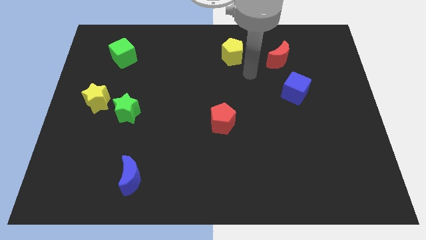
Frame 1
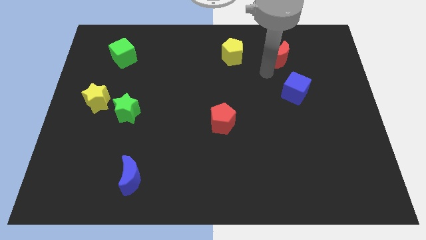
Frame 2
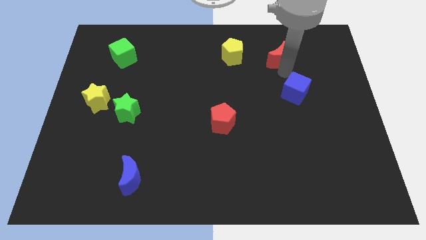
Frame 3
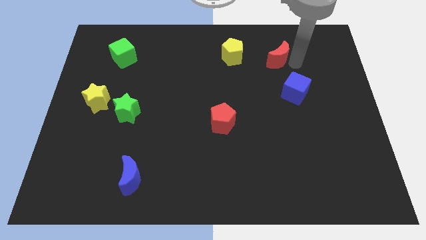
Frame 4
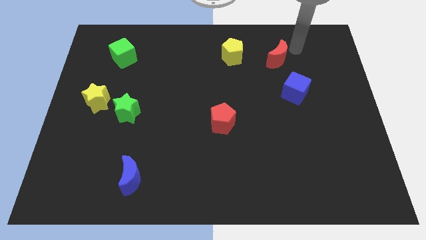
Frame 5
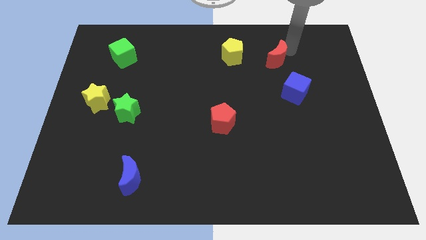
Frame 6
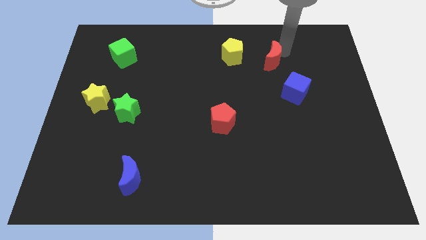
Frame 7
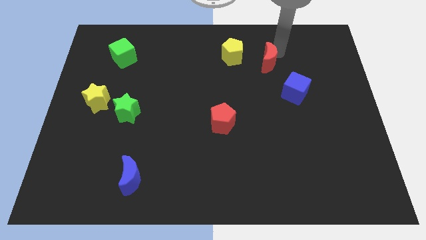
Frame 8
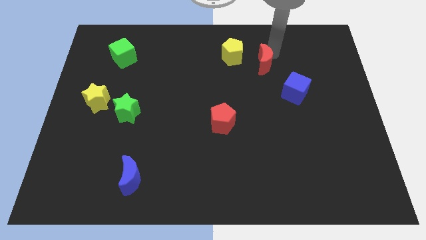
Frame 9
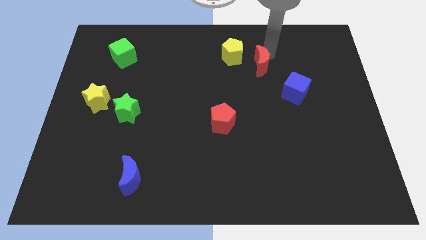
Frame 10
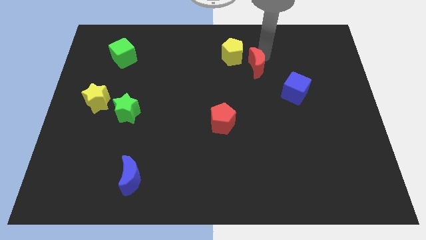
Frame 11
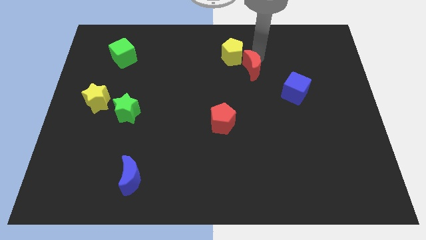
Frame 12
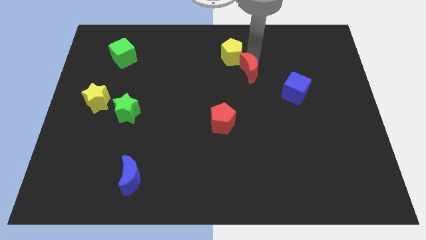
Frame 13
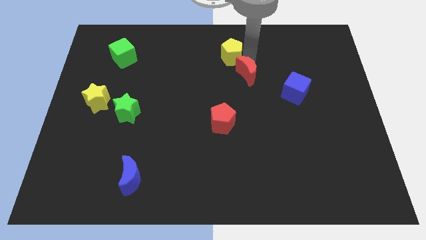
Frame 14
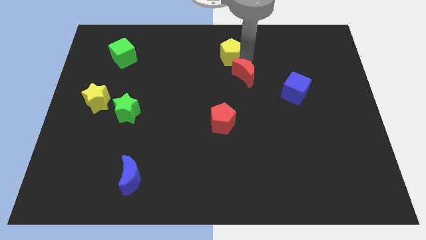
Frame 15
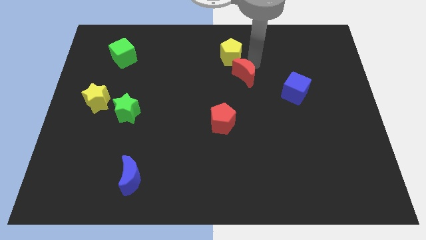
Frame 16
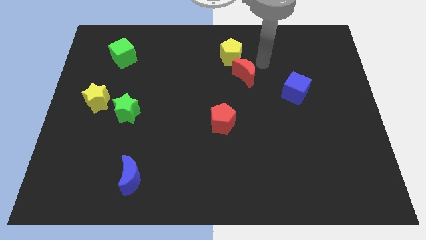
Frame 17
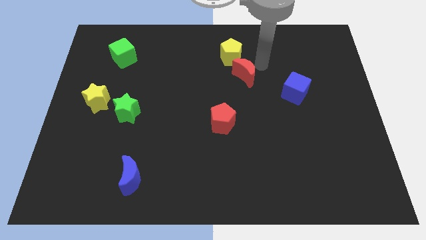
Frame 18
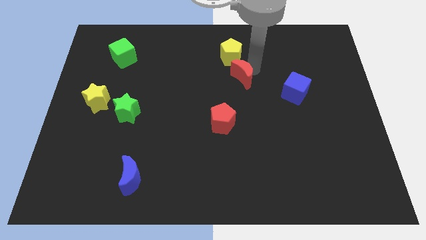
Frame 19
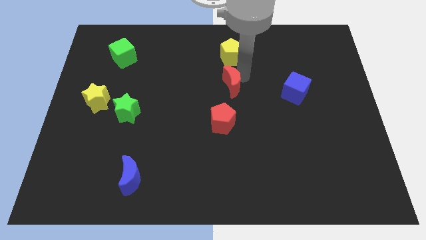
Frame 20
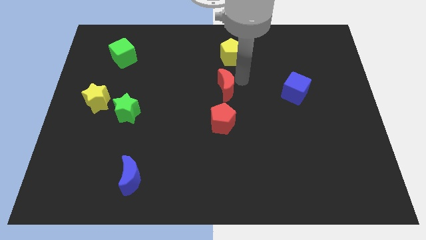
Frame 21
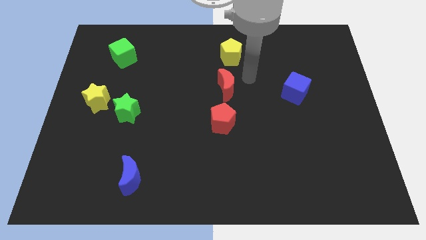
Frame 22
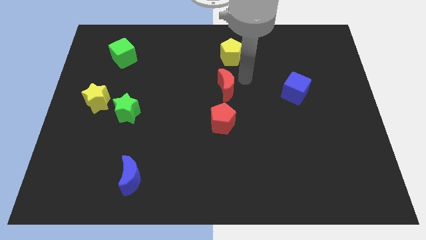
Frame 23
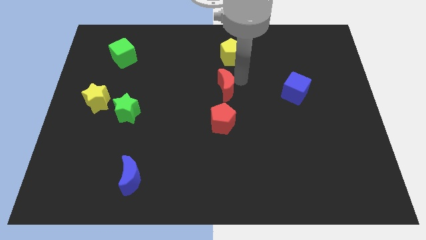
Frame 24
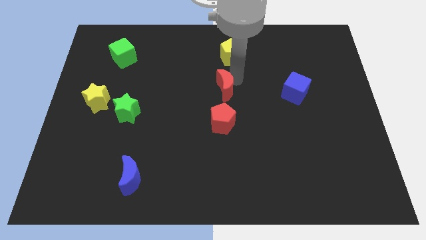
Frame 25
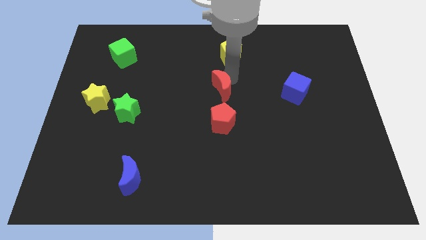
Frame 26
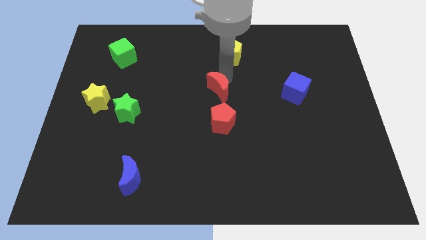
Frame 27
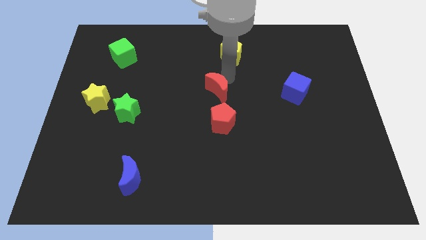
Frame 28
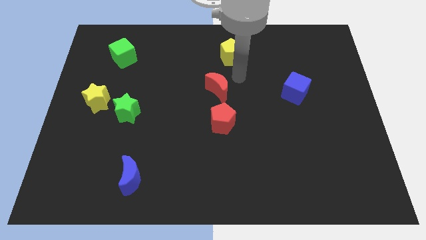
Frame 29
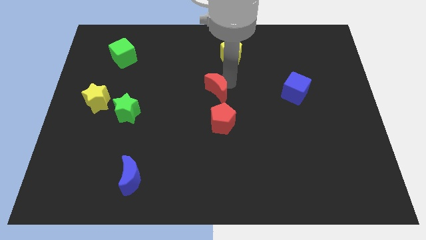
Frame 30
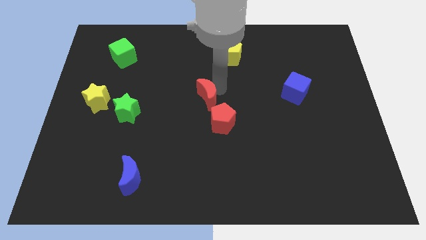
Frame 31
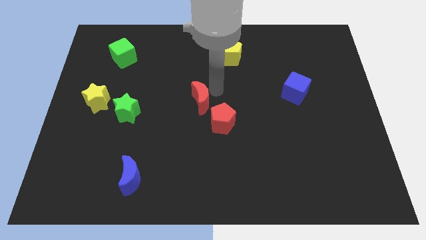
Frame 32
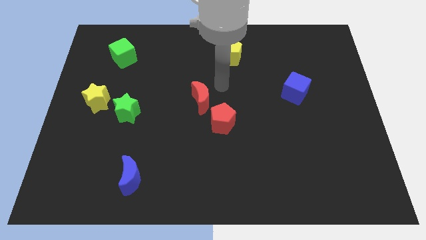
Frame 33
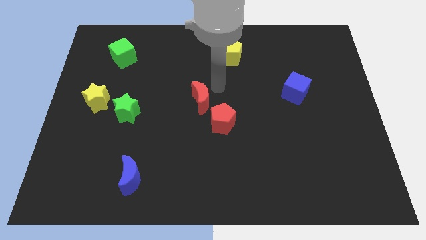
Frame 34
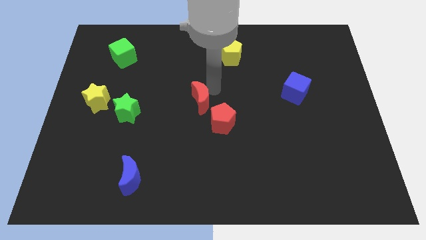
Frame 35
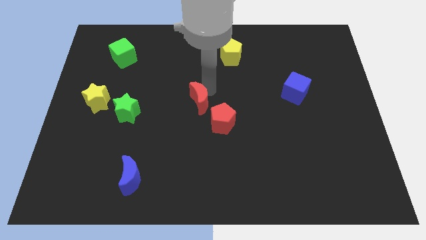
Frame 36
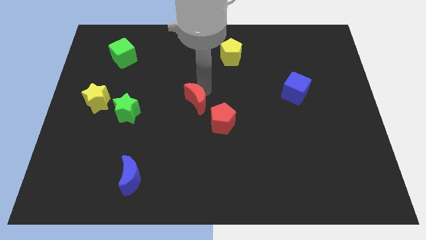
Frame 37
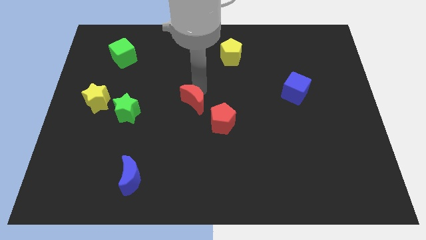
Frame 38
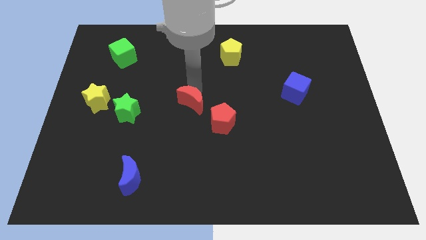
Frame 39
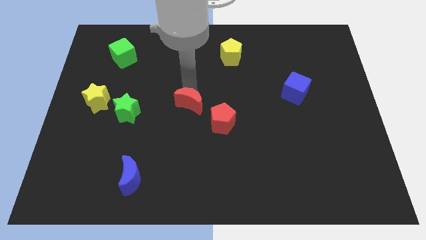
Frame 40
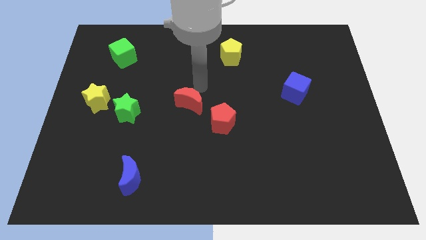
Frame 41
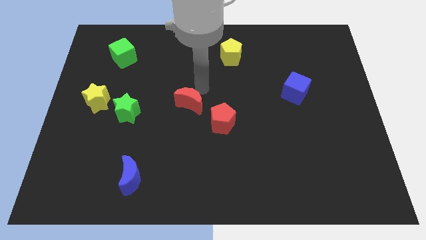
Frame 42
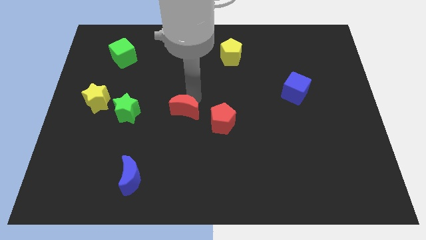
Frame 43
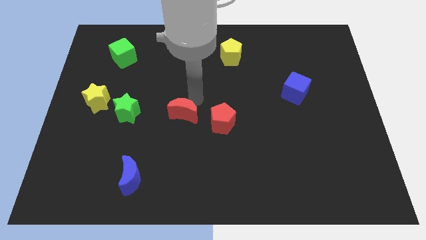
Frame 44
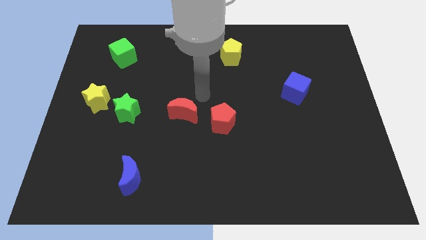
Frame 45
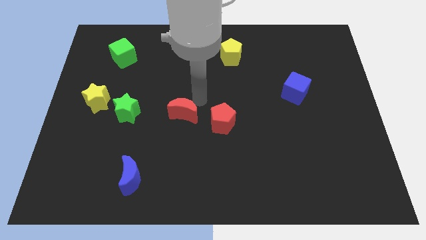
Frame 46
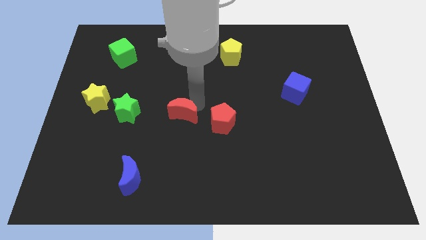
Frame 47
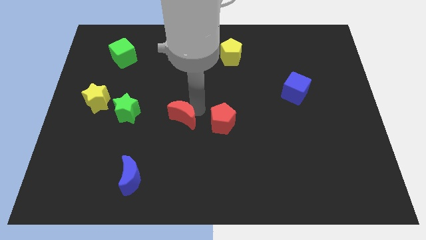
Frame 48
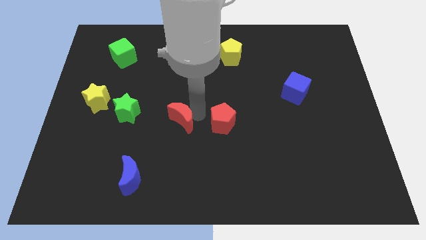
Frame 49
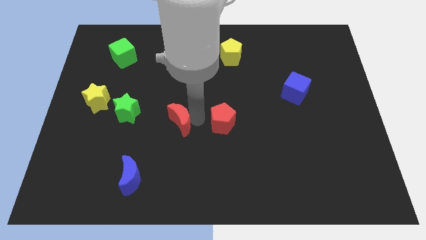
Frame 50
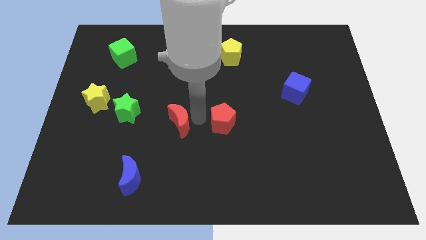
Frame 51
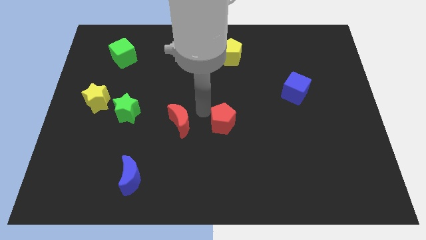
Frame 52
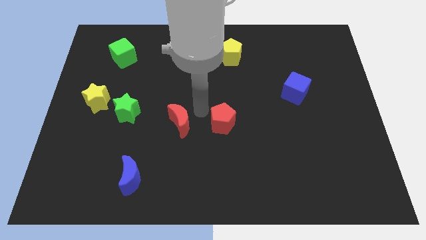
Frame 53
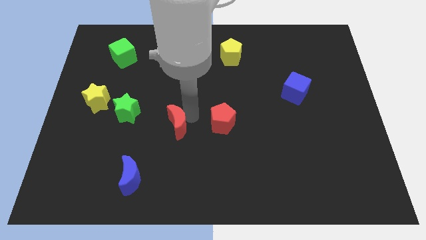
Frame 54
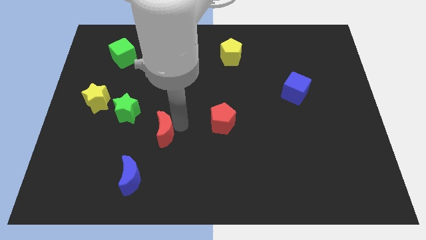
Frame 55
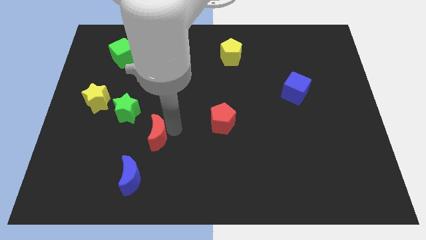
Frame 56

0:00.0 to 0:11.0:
push the red moon above the blue moon

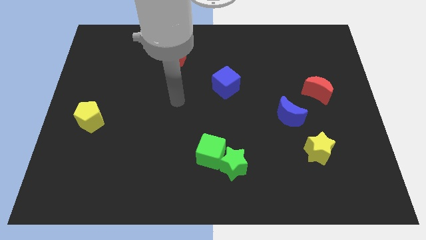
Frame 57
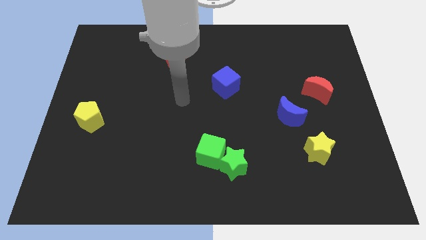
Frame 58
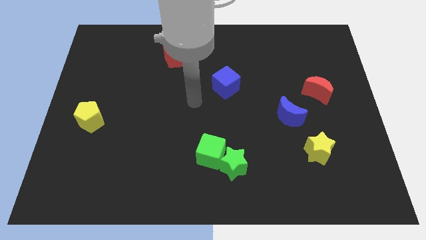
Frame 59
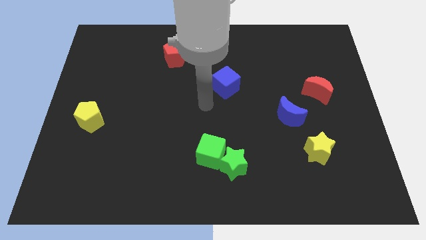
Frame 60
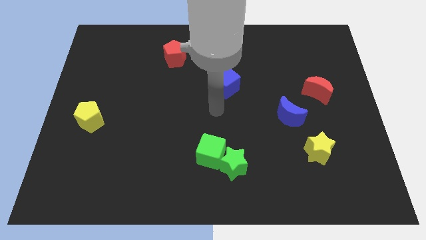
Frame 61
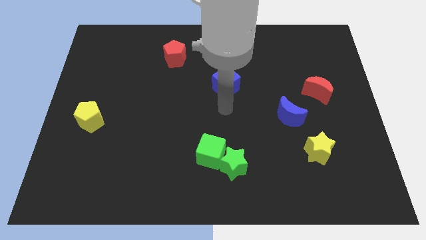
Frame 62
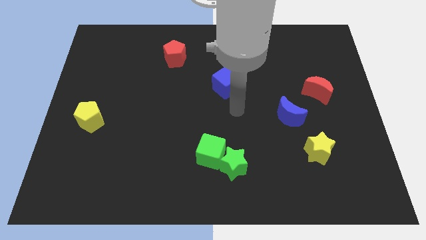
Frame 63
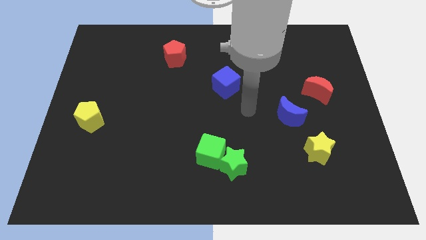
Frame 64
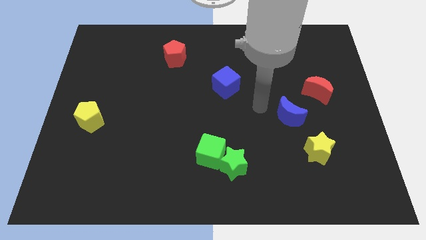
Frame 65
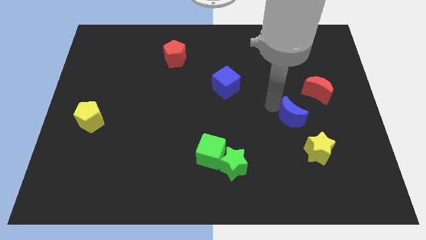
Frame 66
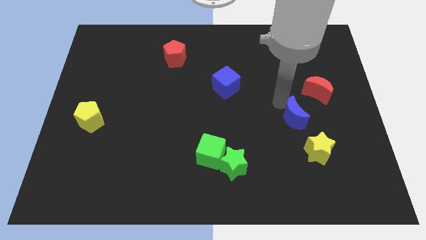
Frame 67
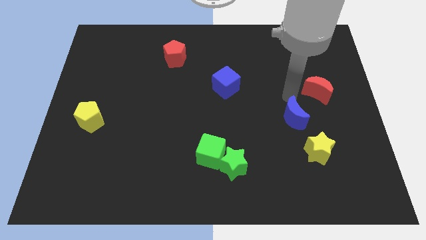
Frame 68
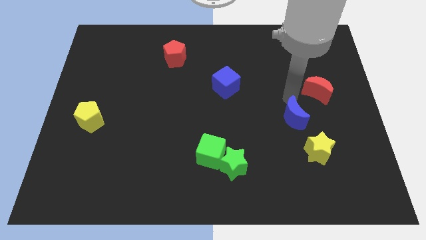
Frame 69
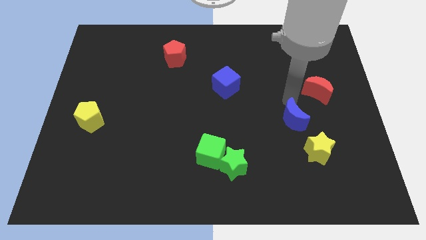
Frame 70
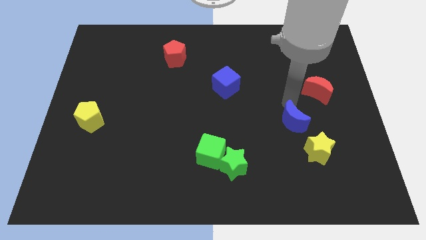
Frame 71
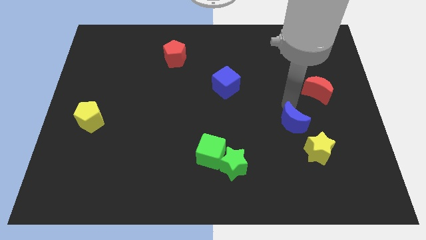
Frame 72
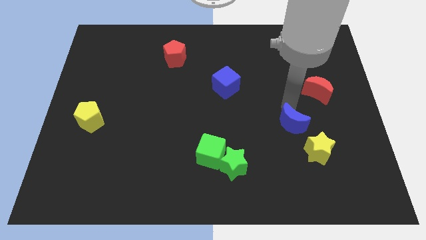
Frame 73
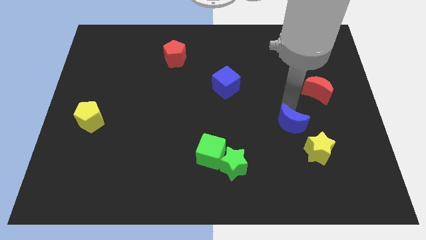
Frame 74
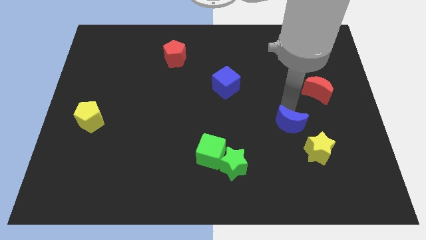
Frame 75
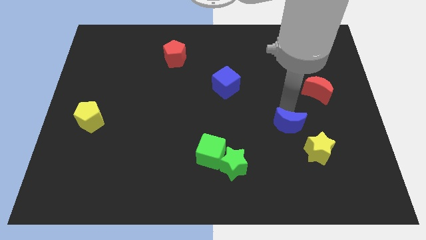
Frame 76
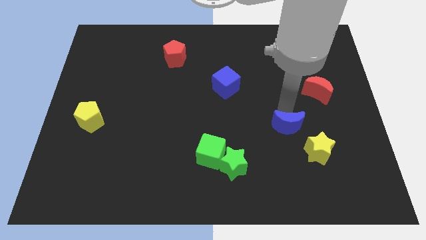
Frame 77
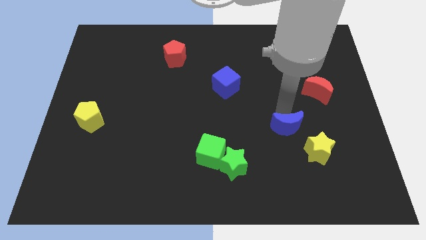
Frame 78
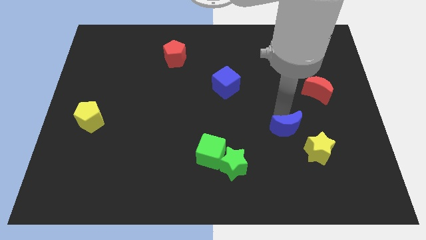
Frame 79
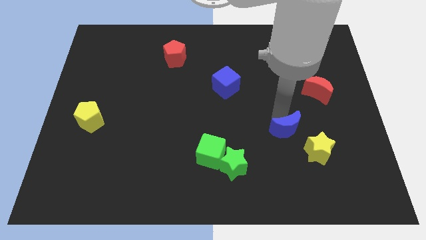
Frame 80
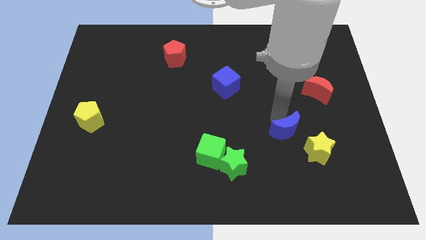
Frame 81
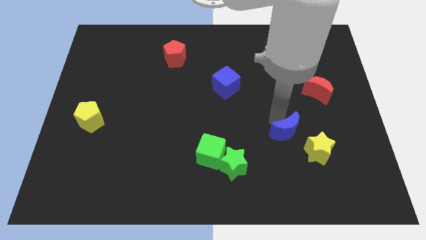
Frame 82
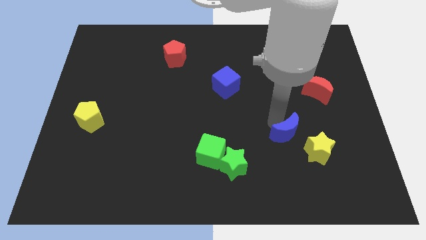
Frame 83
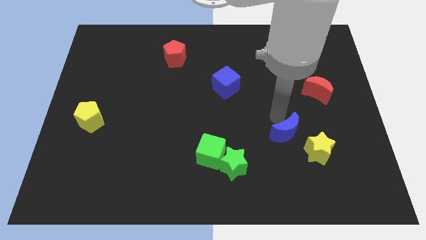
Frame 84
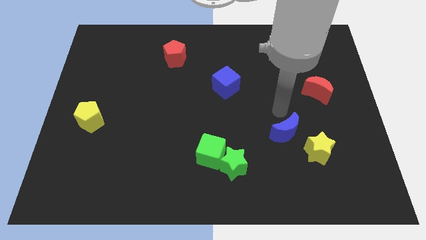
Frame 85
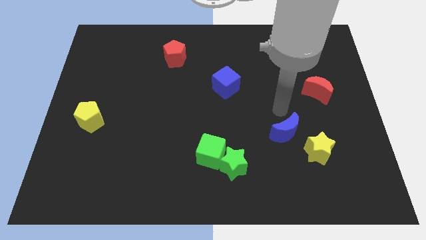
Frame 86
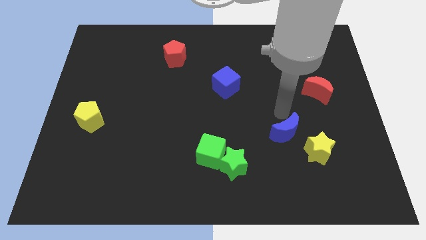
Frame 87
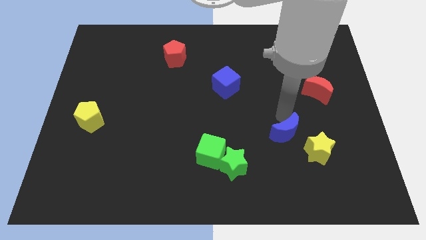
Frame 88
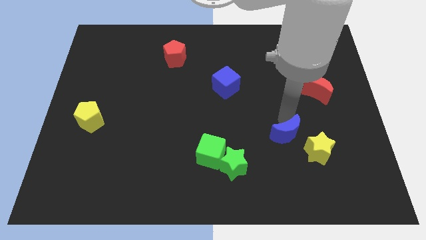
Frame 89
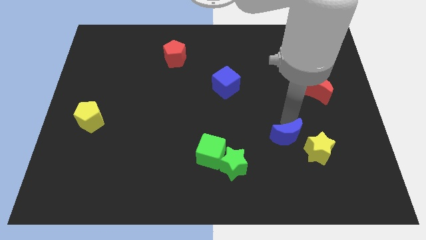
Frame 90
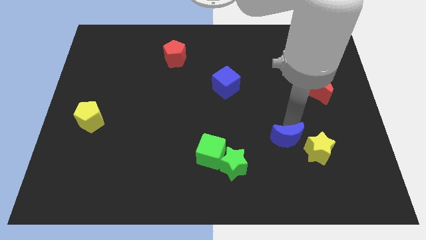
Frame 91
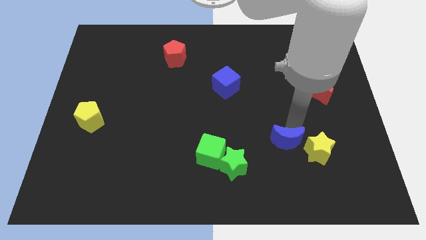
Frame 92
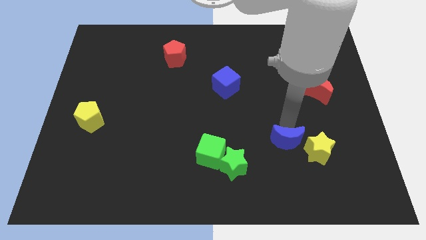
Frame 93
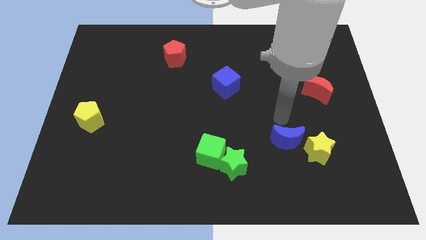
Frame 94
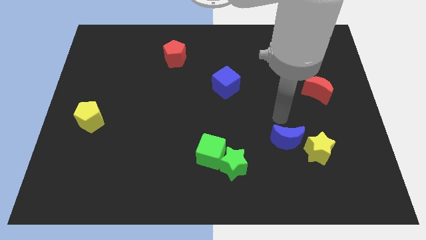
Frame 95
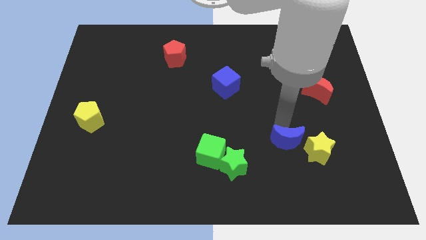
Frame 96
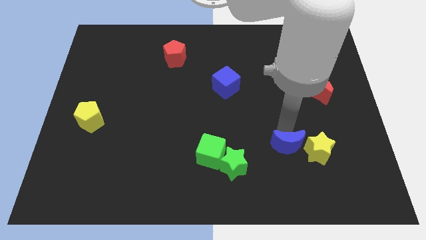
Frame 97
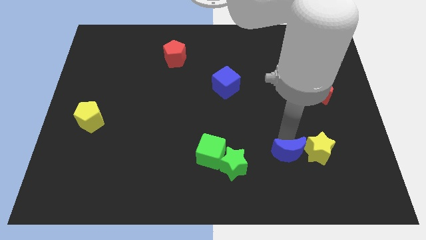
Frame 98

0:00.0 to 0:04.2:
move the blue moon to the bottom left of the yellow star
